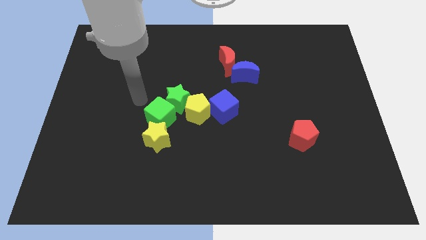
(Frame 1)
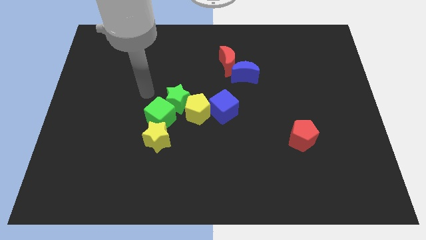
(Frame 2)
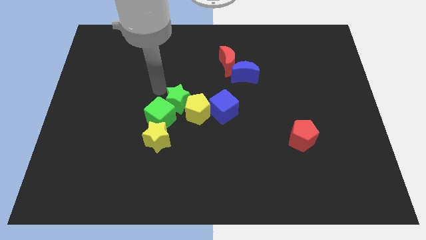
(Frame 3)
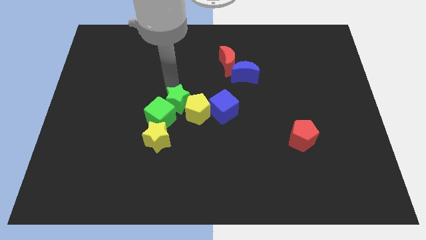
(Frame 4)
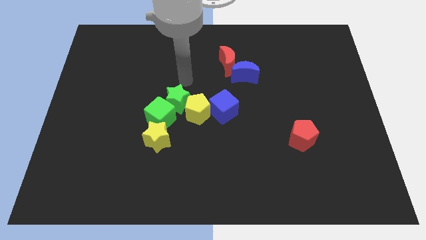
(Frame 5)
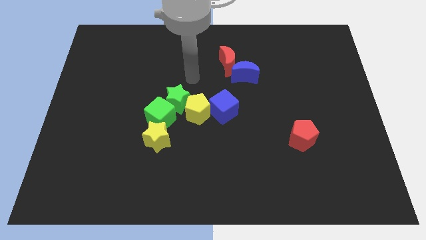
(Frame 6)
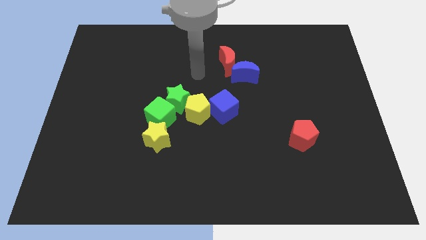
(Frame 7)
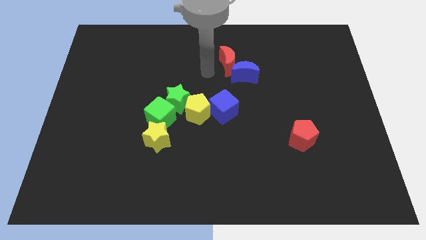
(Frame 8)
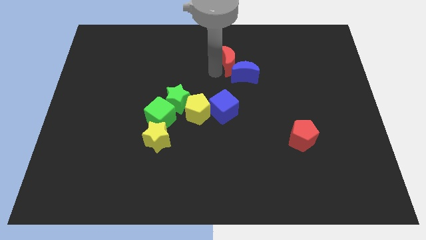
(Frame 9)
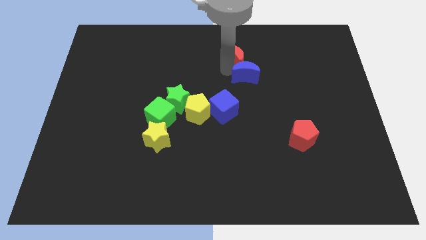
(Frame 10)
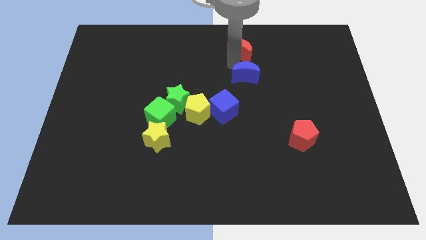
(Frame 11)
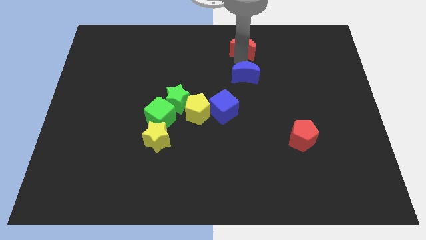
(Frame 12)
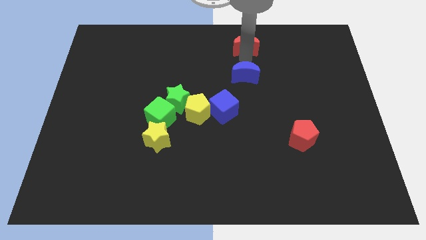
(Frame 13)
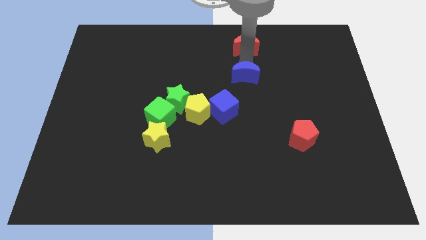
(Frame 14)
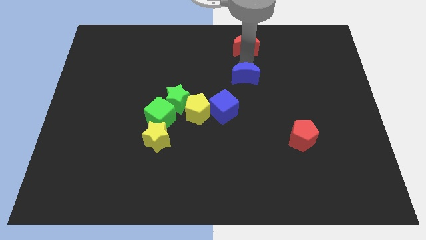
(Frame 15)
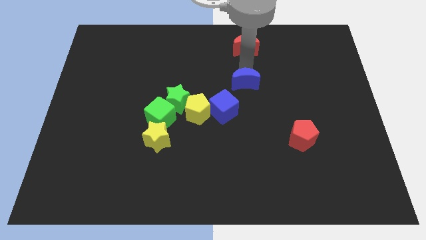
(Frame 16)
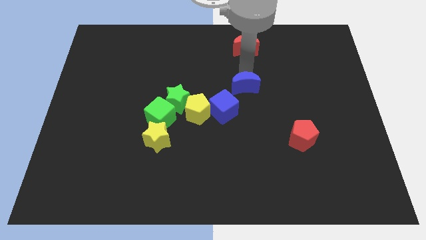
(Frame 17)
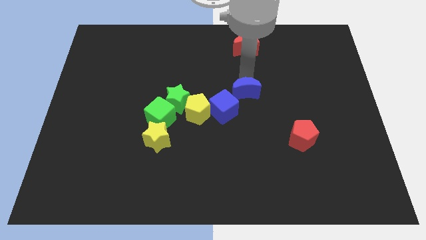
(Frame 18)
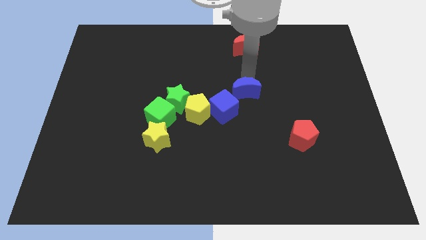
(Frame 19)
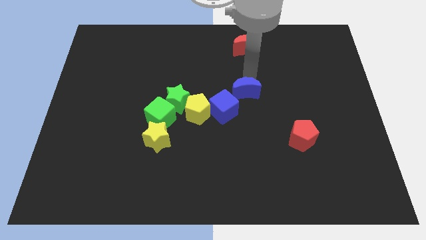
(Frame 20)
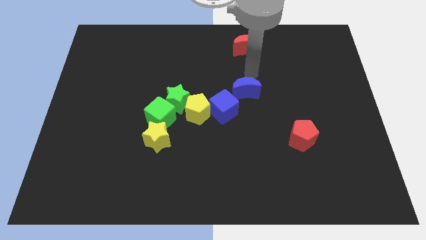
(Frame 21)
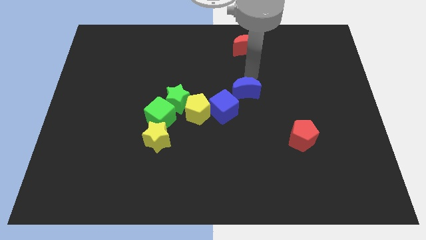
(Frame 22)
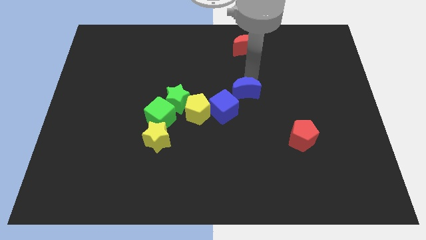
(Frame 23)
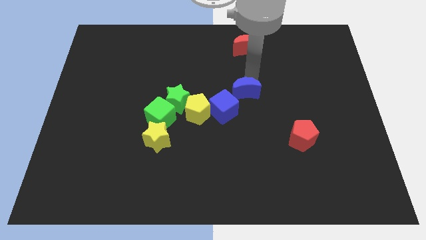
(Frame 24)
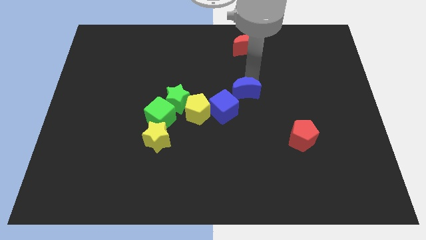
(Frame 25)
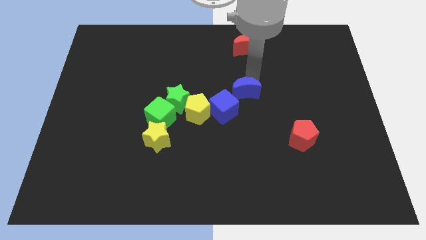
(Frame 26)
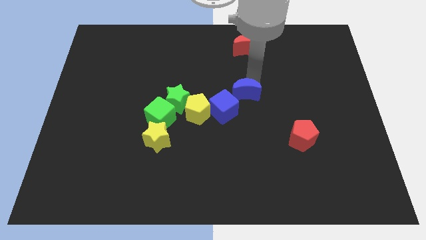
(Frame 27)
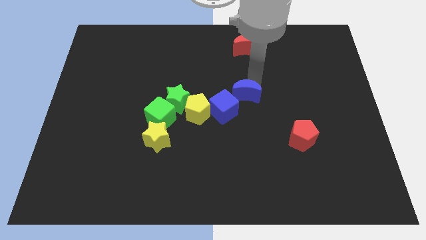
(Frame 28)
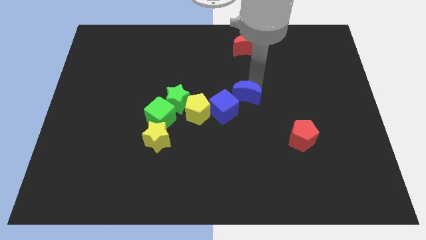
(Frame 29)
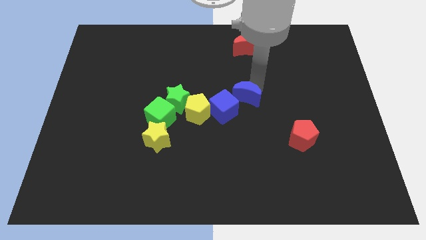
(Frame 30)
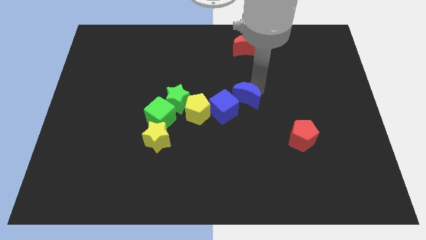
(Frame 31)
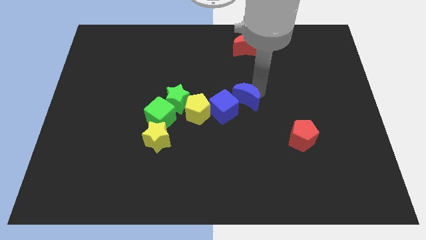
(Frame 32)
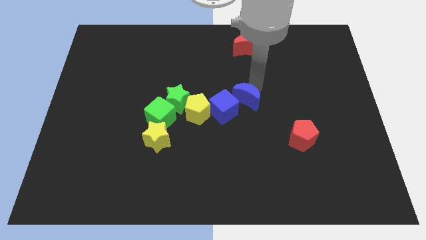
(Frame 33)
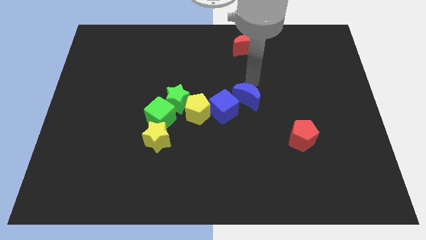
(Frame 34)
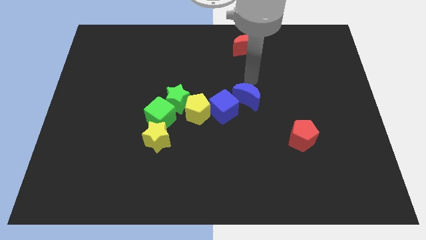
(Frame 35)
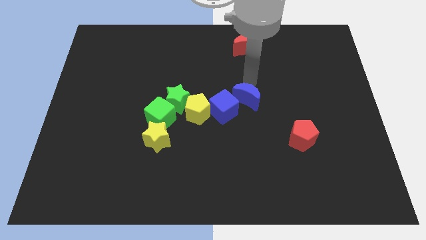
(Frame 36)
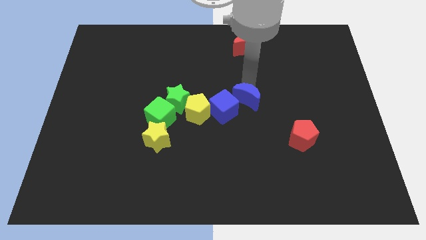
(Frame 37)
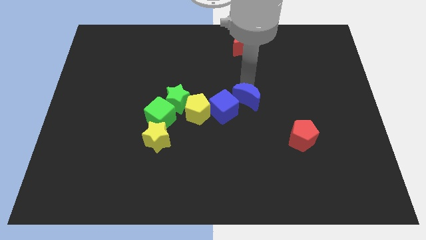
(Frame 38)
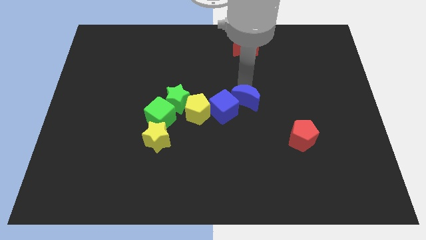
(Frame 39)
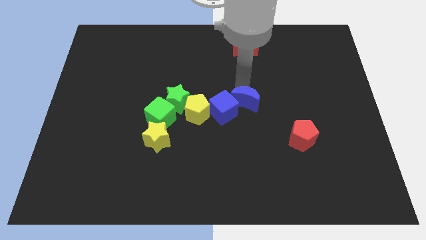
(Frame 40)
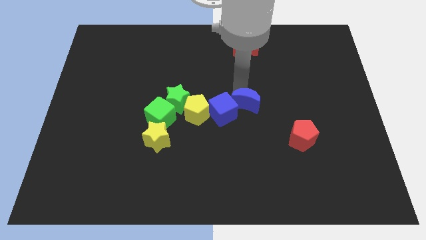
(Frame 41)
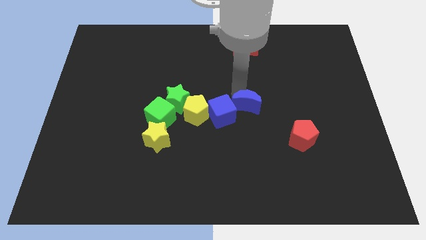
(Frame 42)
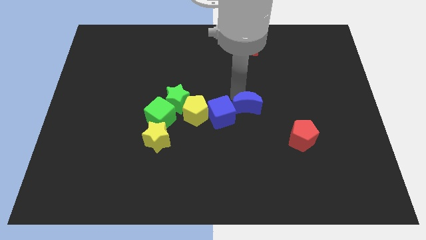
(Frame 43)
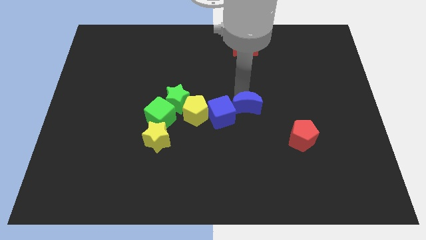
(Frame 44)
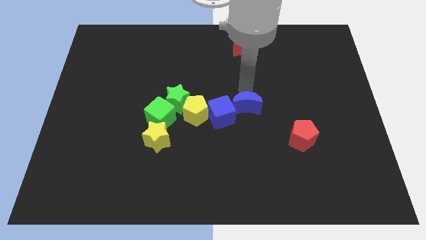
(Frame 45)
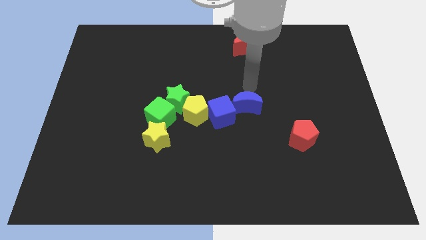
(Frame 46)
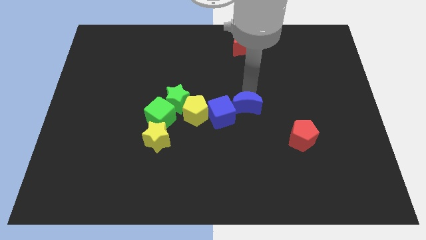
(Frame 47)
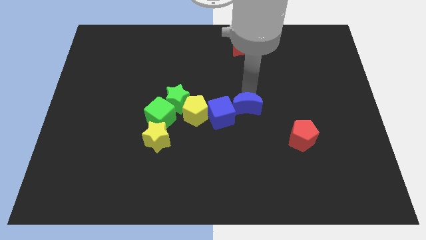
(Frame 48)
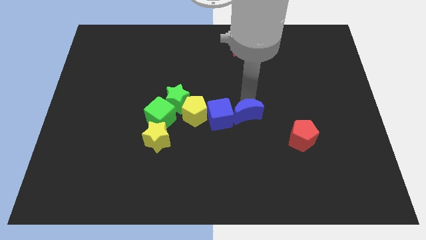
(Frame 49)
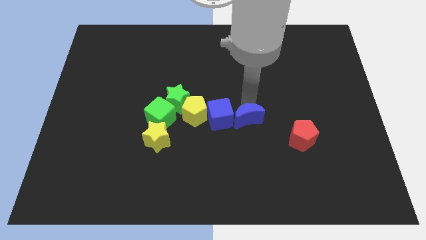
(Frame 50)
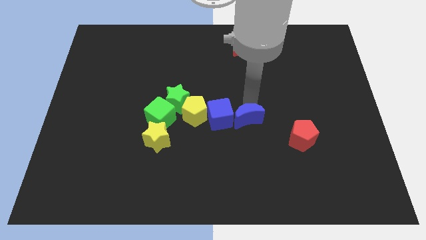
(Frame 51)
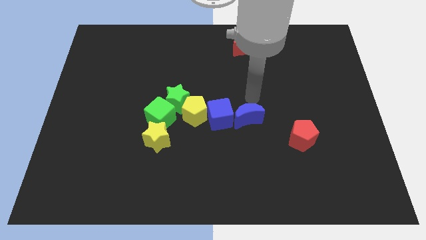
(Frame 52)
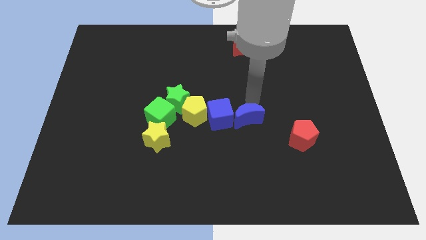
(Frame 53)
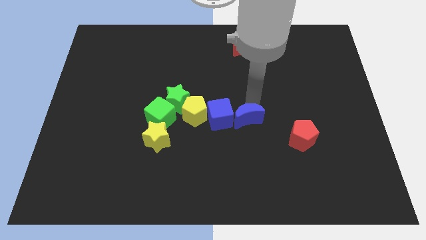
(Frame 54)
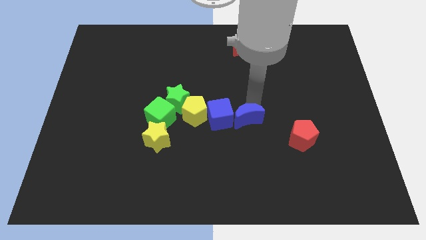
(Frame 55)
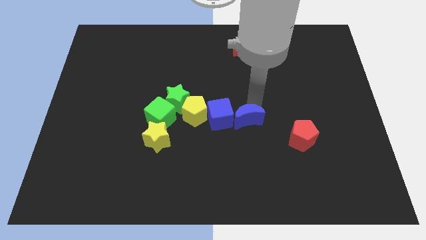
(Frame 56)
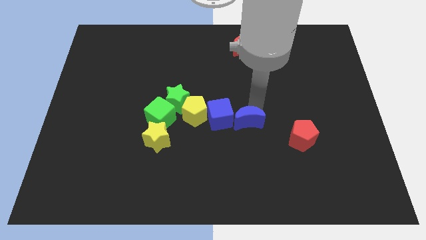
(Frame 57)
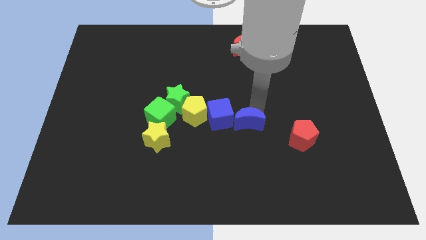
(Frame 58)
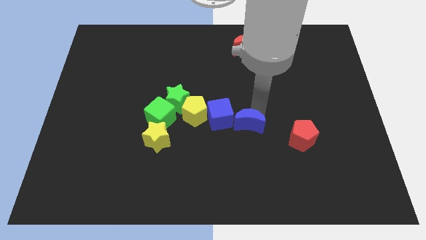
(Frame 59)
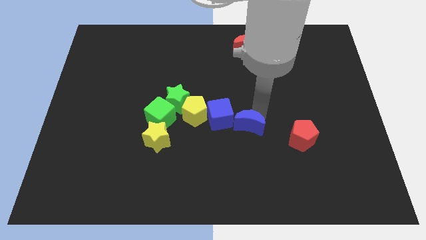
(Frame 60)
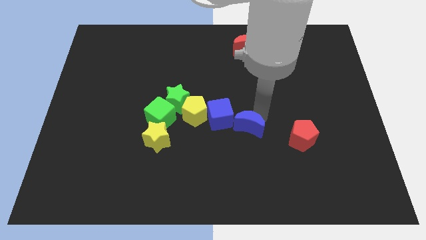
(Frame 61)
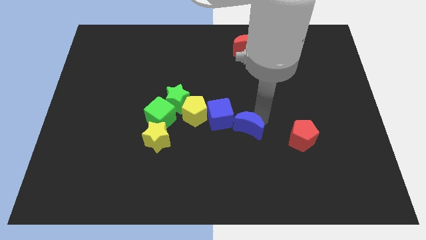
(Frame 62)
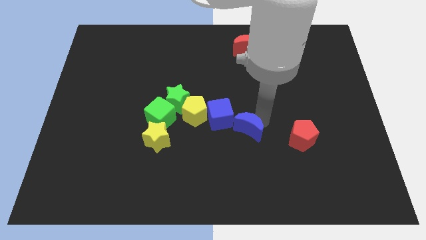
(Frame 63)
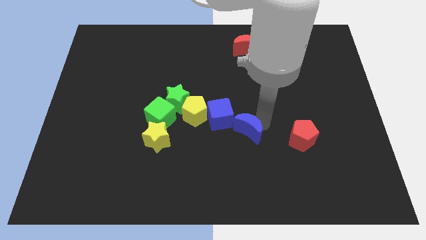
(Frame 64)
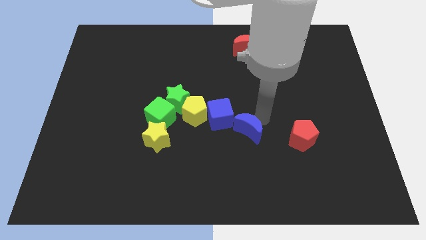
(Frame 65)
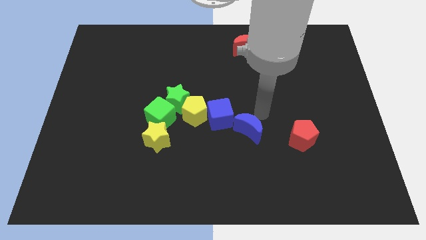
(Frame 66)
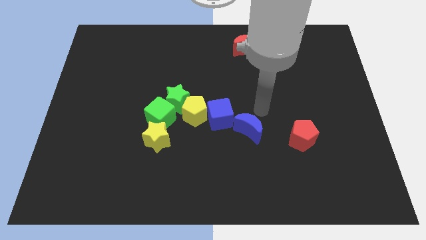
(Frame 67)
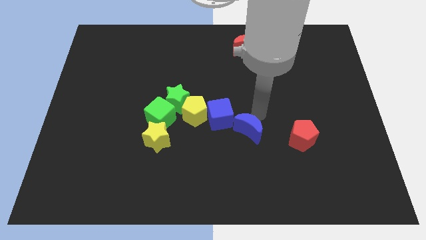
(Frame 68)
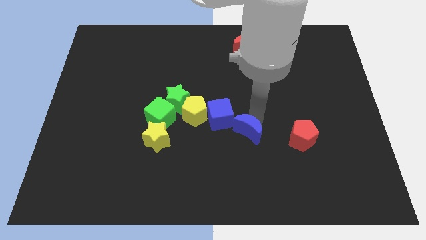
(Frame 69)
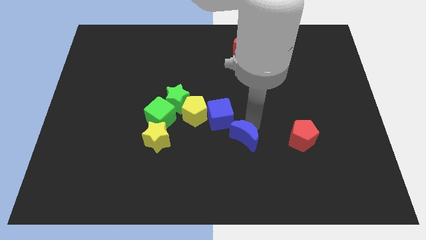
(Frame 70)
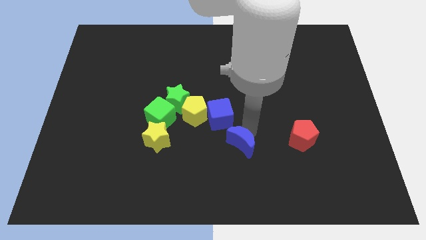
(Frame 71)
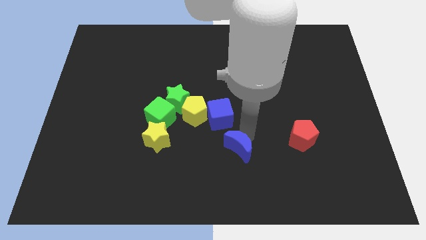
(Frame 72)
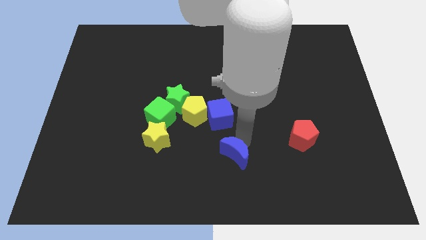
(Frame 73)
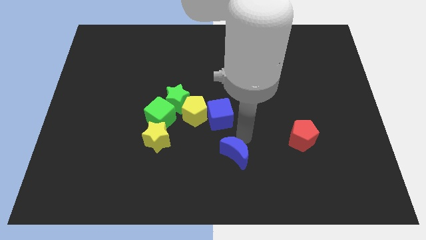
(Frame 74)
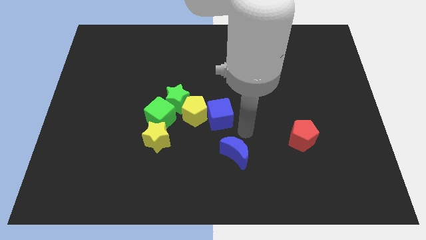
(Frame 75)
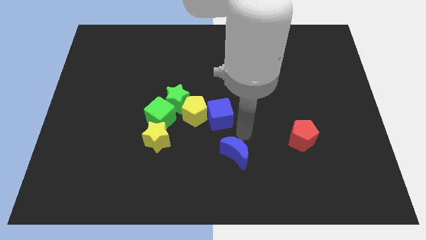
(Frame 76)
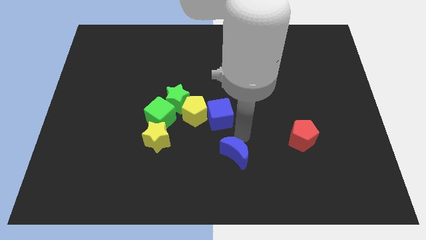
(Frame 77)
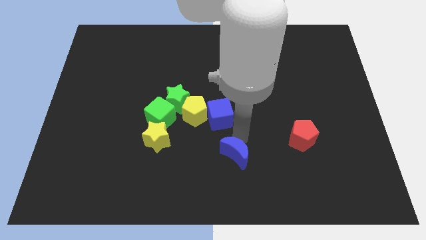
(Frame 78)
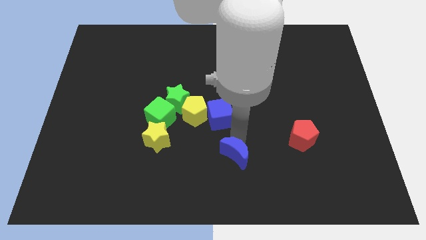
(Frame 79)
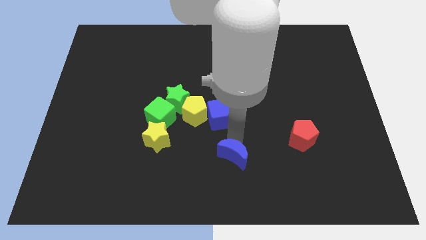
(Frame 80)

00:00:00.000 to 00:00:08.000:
slide the blue moon to the bottom
